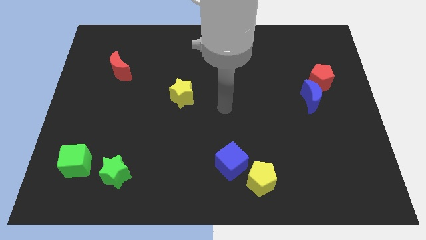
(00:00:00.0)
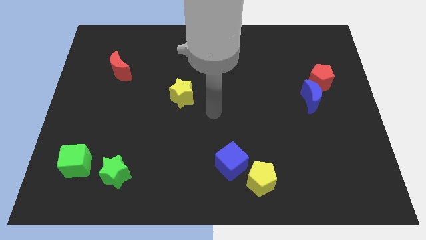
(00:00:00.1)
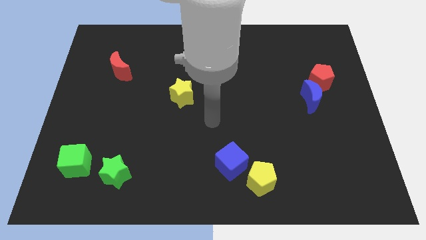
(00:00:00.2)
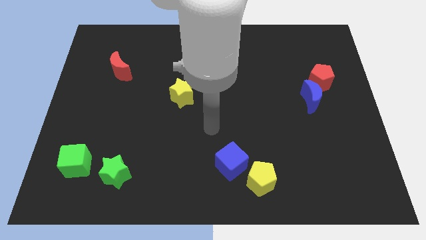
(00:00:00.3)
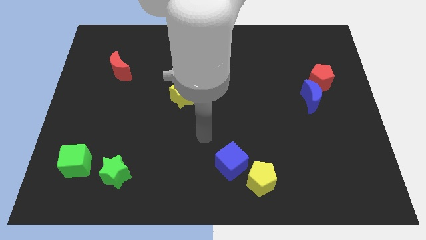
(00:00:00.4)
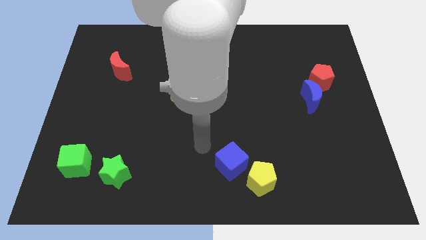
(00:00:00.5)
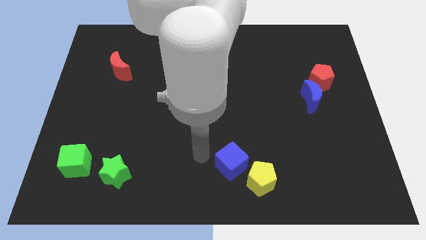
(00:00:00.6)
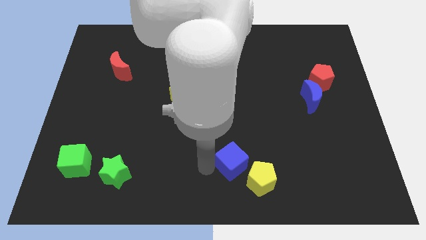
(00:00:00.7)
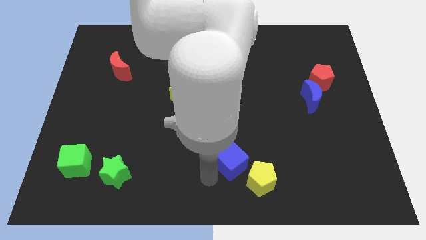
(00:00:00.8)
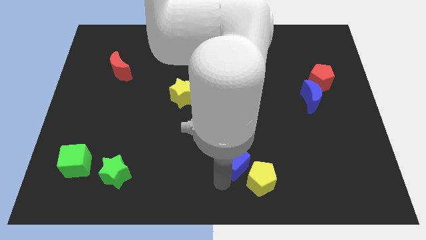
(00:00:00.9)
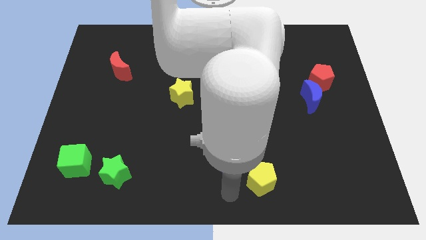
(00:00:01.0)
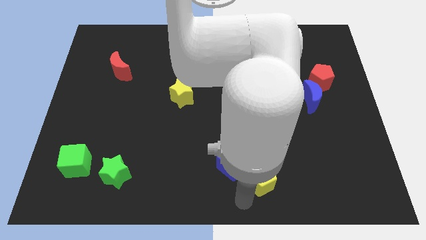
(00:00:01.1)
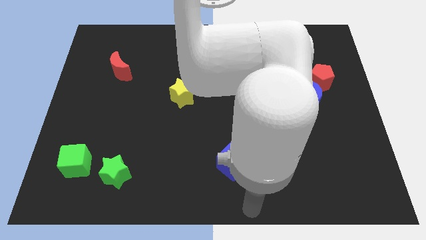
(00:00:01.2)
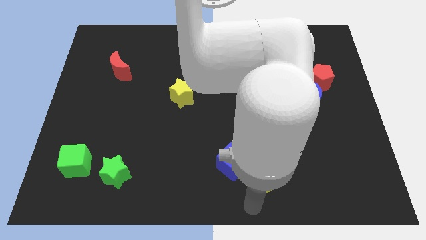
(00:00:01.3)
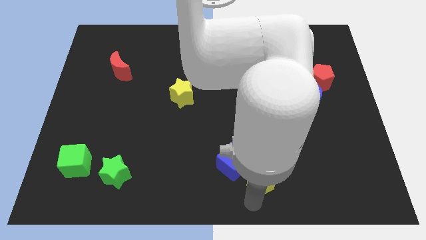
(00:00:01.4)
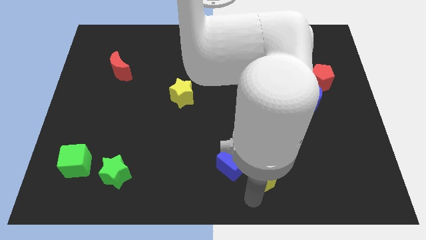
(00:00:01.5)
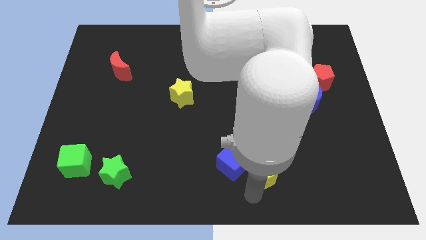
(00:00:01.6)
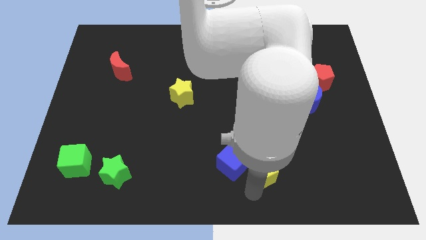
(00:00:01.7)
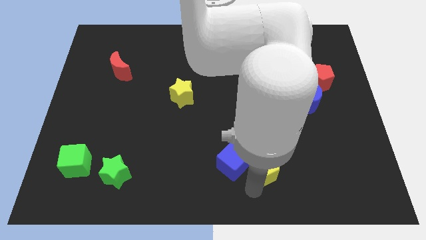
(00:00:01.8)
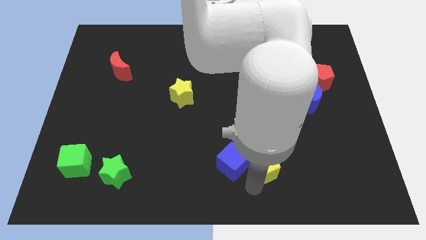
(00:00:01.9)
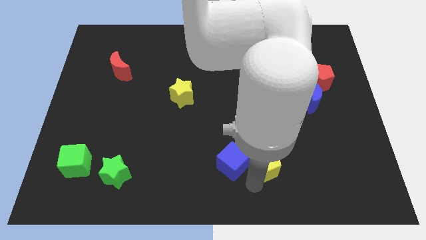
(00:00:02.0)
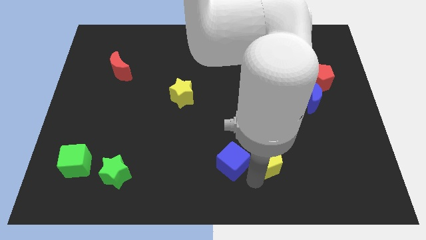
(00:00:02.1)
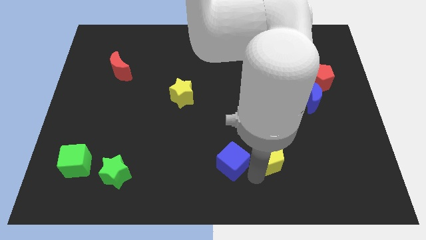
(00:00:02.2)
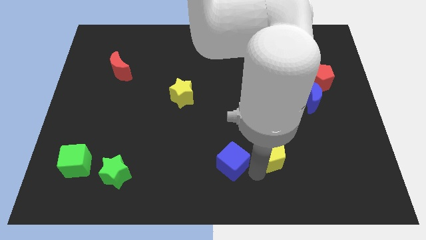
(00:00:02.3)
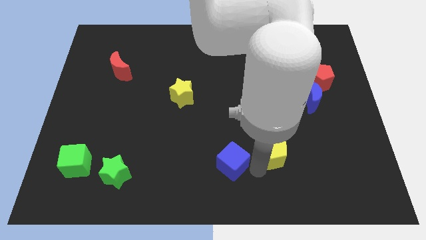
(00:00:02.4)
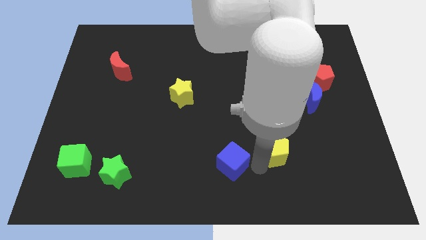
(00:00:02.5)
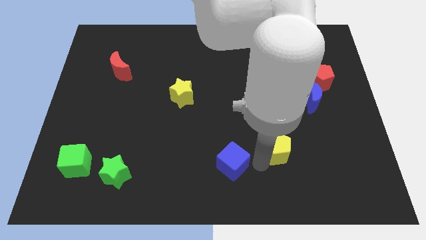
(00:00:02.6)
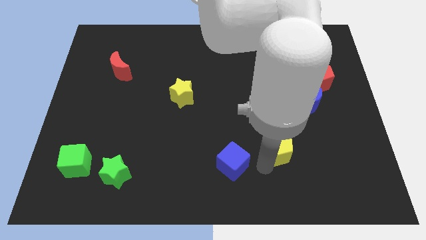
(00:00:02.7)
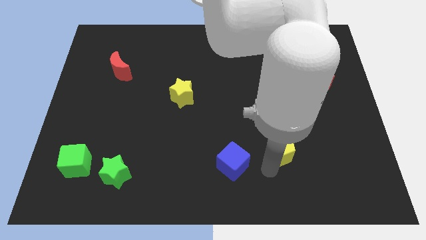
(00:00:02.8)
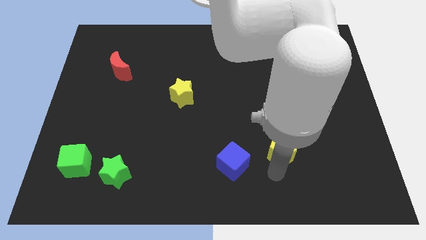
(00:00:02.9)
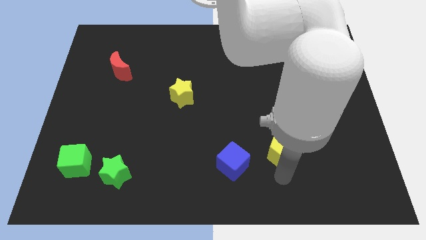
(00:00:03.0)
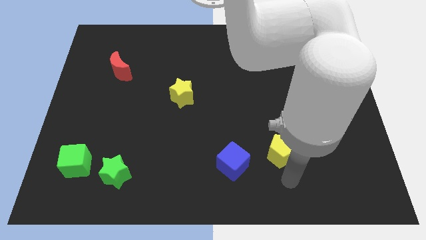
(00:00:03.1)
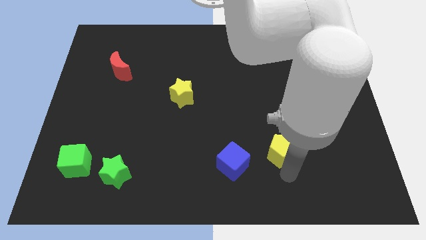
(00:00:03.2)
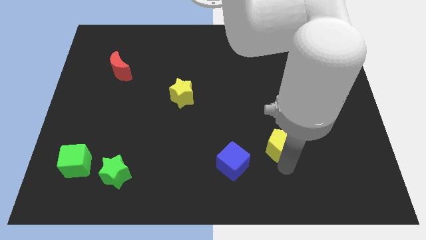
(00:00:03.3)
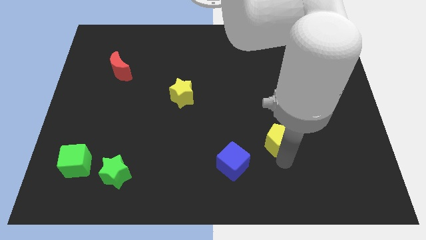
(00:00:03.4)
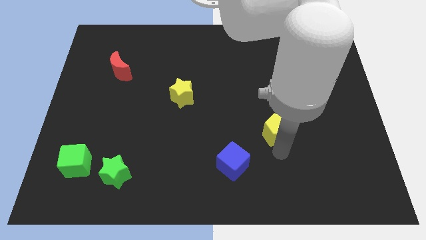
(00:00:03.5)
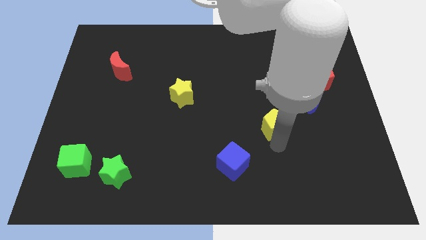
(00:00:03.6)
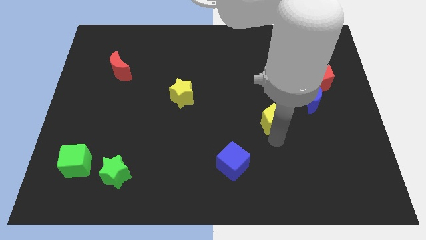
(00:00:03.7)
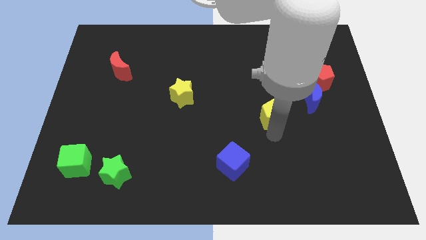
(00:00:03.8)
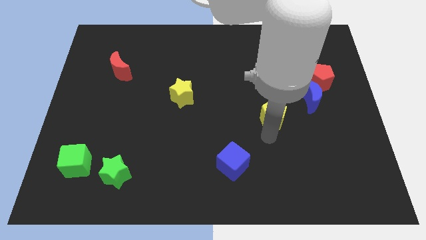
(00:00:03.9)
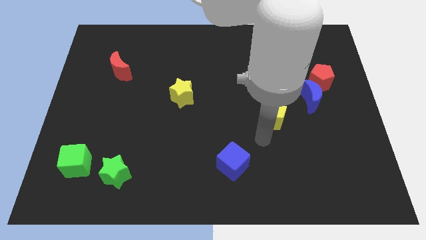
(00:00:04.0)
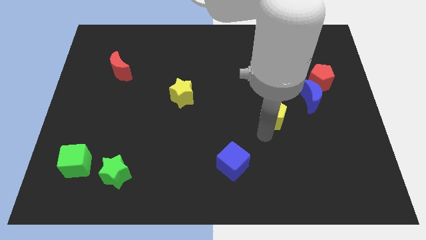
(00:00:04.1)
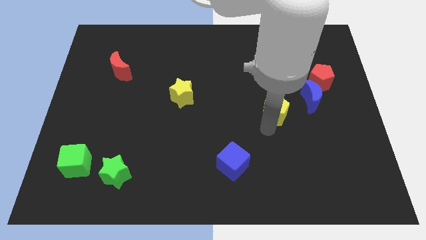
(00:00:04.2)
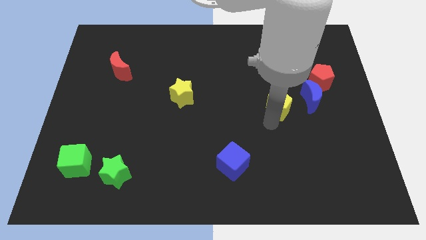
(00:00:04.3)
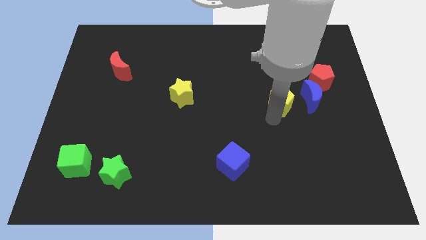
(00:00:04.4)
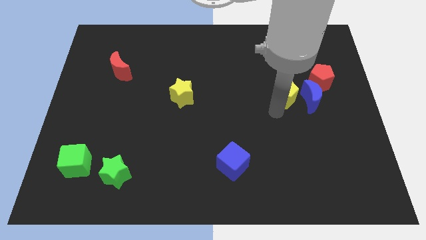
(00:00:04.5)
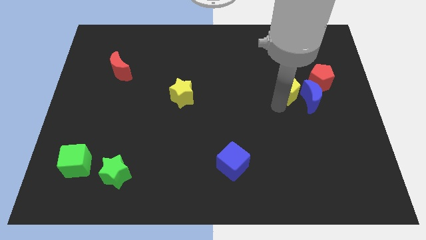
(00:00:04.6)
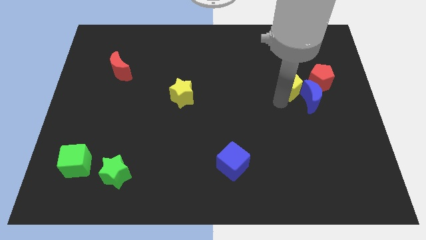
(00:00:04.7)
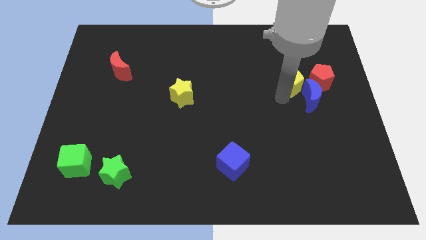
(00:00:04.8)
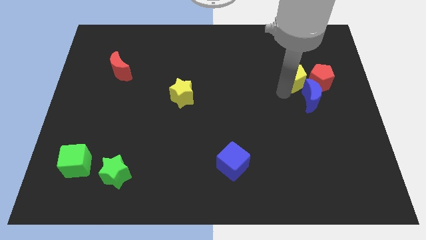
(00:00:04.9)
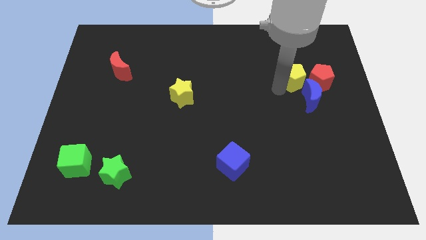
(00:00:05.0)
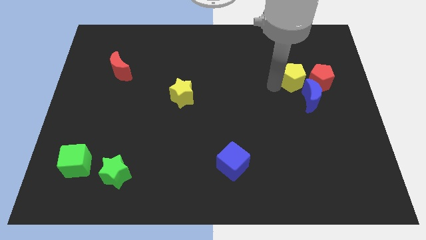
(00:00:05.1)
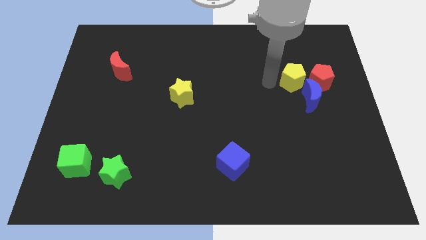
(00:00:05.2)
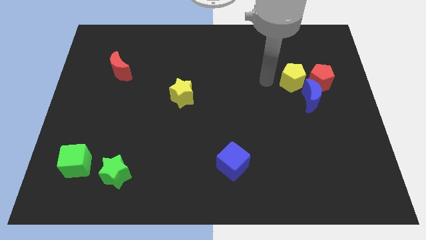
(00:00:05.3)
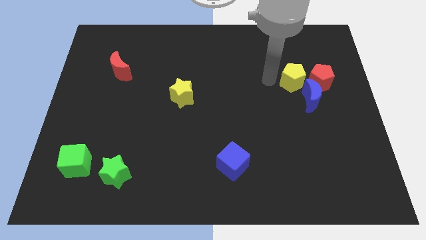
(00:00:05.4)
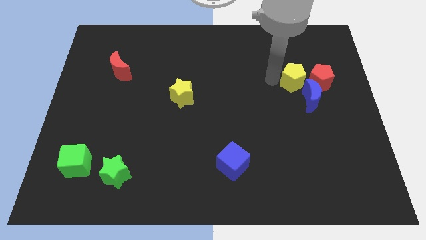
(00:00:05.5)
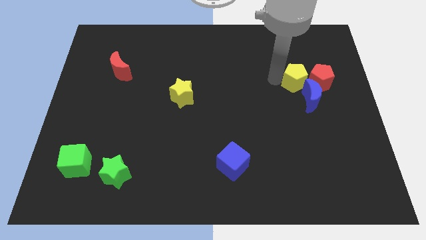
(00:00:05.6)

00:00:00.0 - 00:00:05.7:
slide the yellow pentagon close to the red pentagon

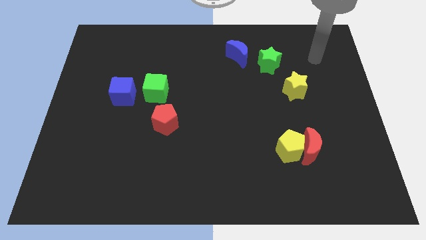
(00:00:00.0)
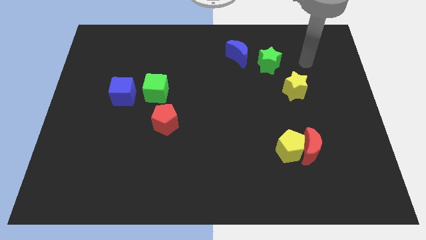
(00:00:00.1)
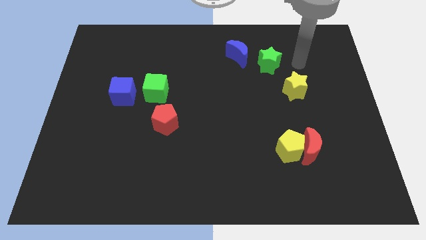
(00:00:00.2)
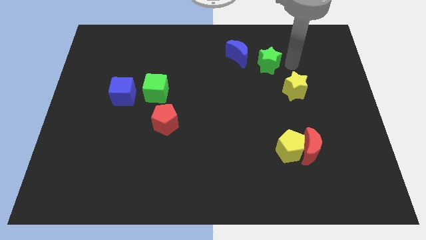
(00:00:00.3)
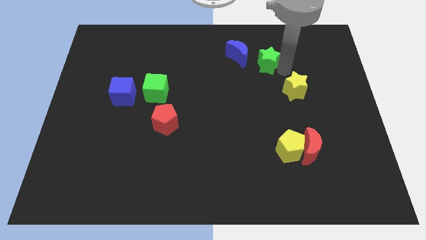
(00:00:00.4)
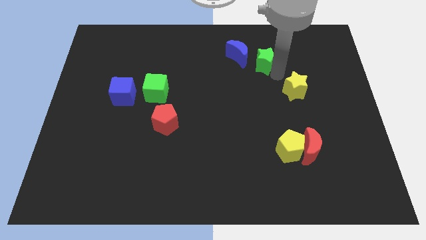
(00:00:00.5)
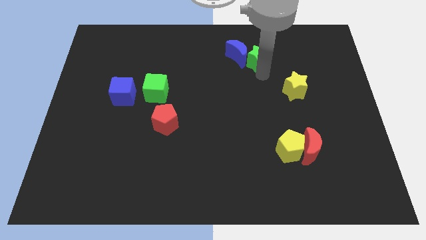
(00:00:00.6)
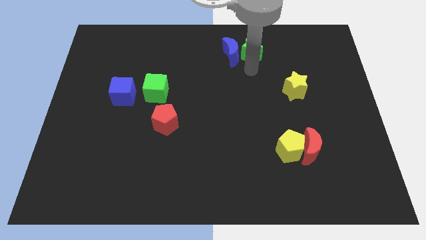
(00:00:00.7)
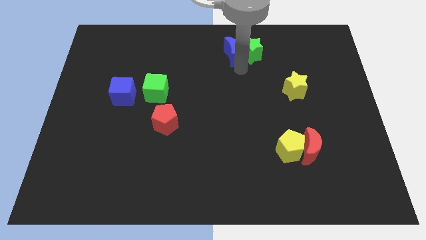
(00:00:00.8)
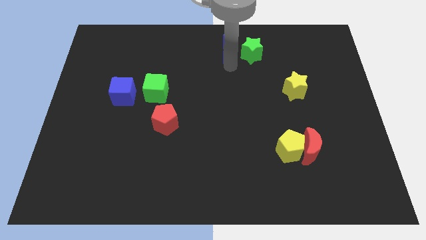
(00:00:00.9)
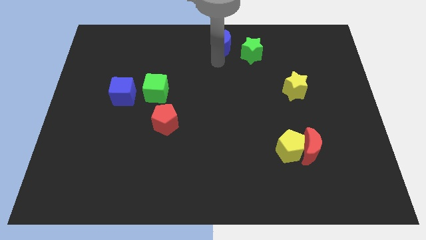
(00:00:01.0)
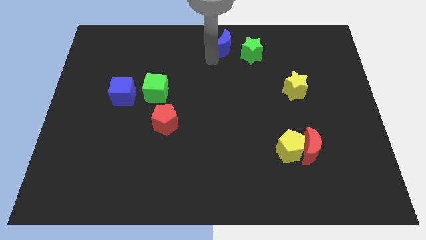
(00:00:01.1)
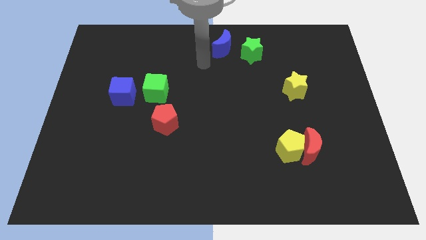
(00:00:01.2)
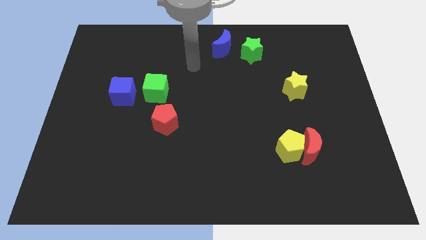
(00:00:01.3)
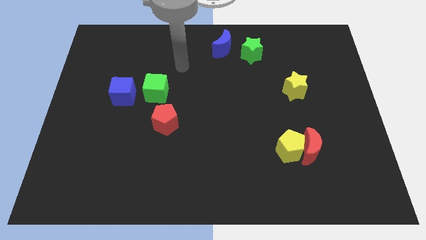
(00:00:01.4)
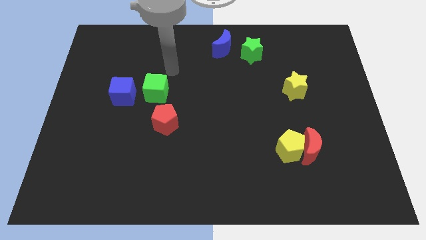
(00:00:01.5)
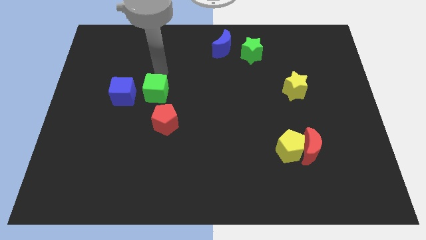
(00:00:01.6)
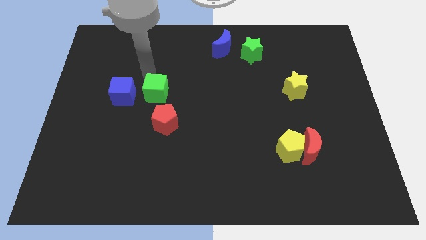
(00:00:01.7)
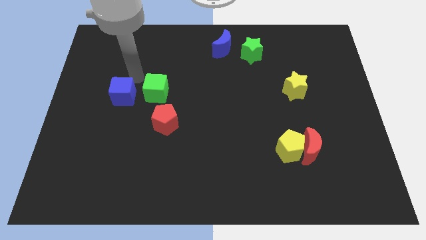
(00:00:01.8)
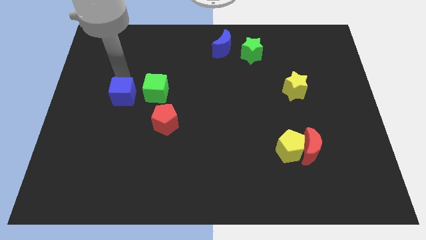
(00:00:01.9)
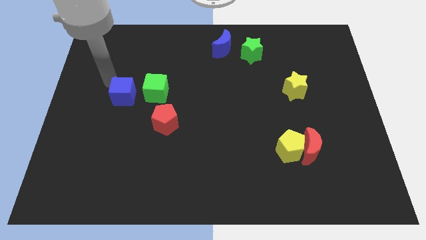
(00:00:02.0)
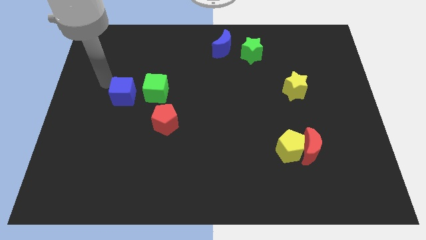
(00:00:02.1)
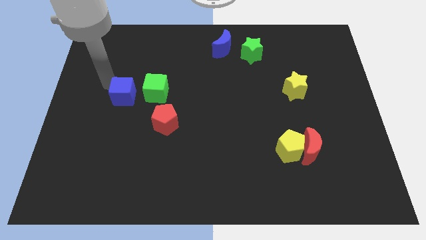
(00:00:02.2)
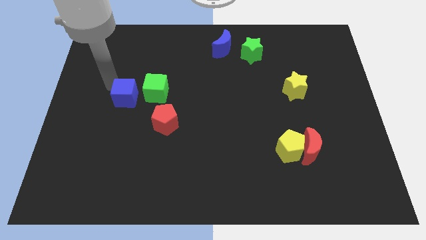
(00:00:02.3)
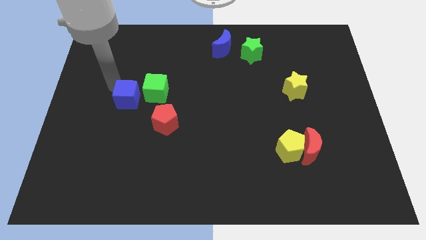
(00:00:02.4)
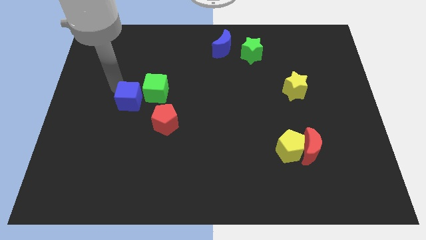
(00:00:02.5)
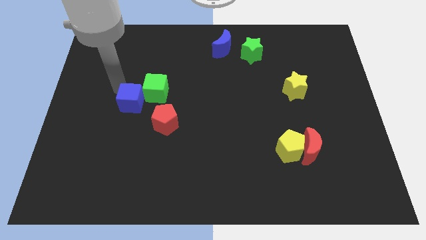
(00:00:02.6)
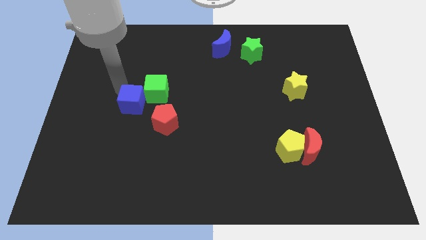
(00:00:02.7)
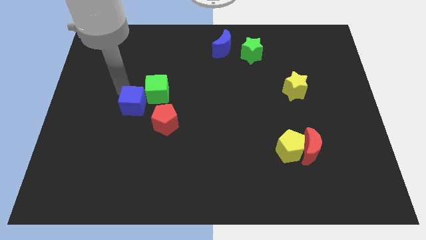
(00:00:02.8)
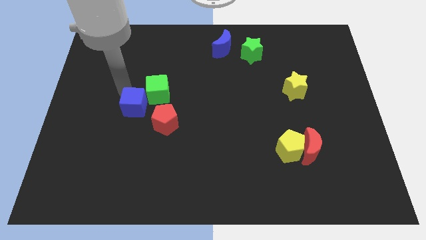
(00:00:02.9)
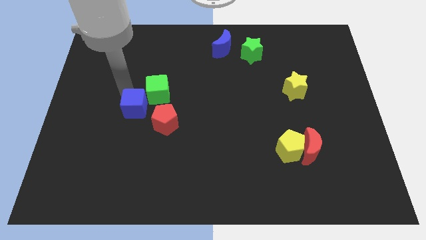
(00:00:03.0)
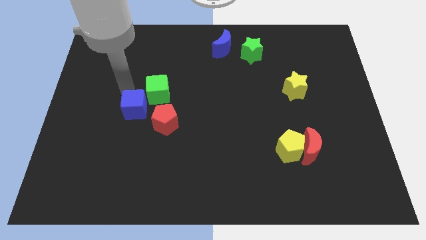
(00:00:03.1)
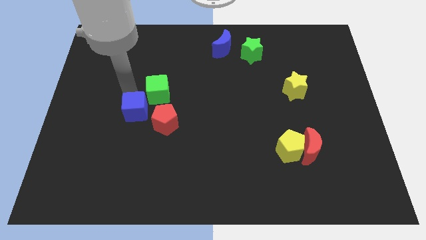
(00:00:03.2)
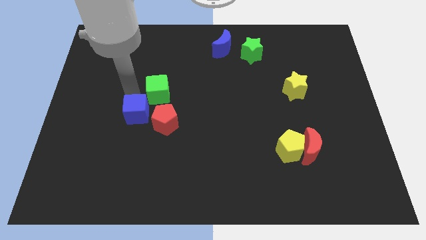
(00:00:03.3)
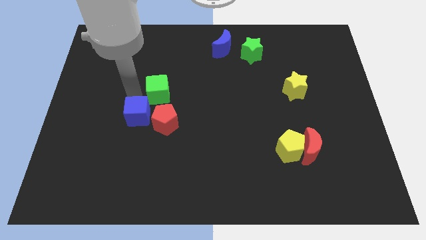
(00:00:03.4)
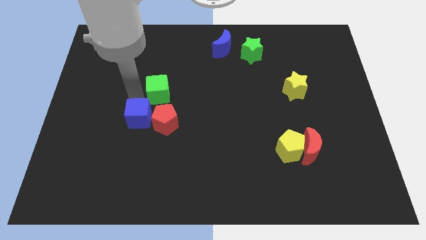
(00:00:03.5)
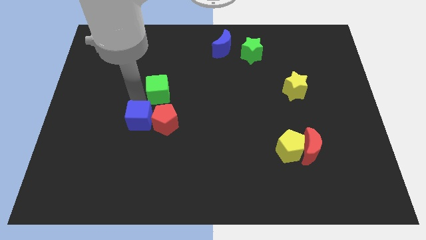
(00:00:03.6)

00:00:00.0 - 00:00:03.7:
slide the blue cube close to the red pentagon
